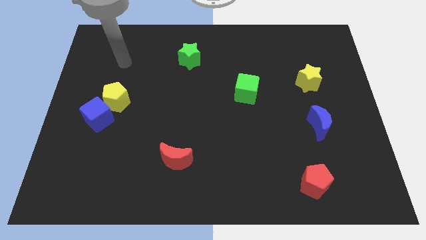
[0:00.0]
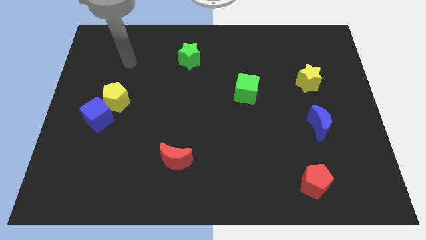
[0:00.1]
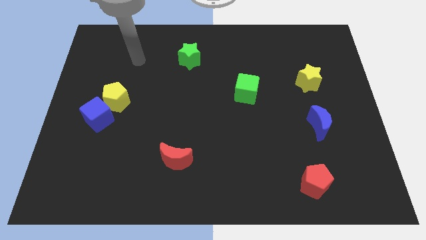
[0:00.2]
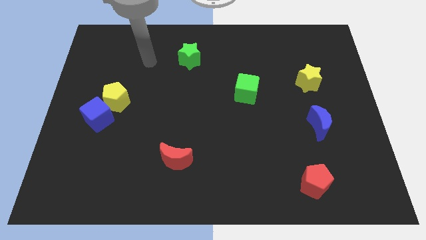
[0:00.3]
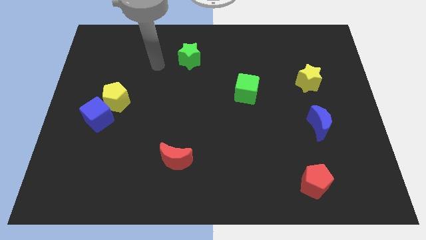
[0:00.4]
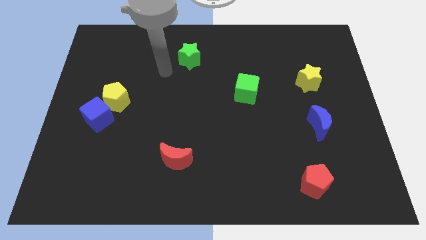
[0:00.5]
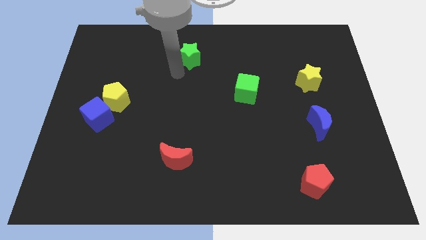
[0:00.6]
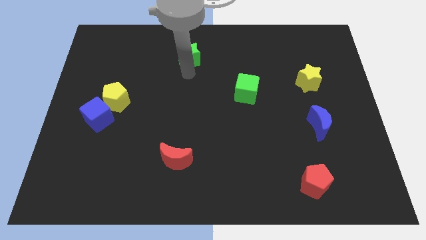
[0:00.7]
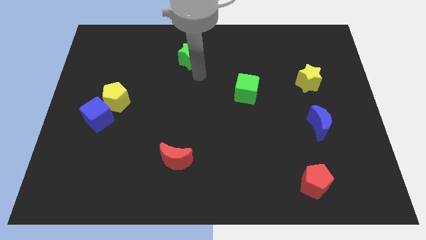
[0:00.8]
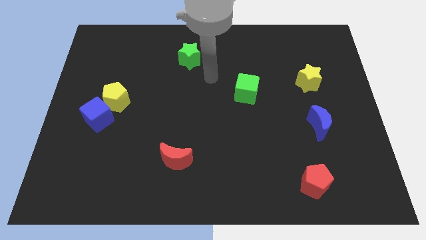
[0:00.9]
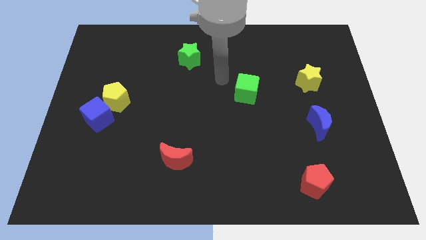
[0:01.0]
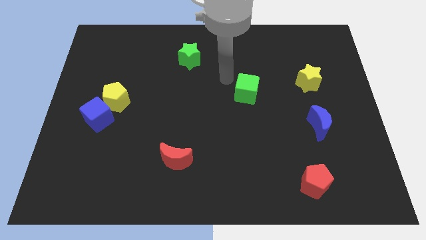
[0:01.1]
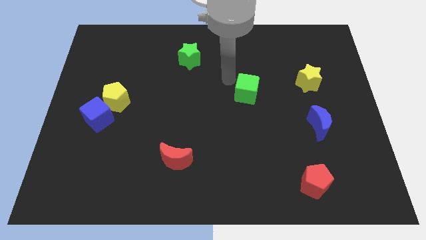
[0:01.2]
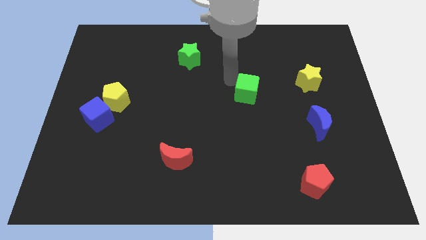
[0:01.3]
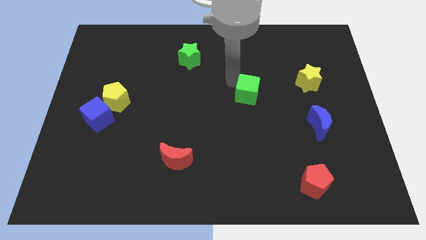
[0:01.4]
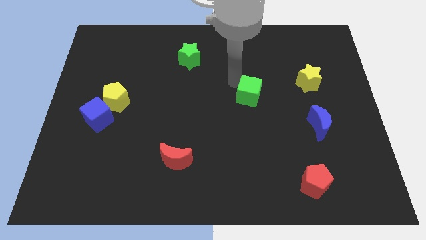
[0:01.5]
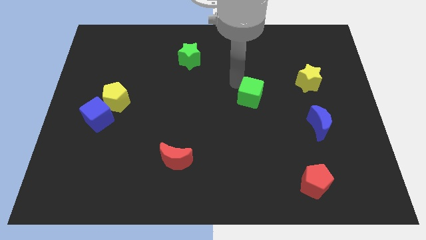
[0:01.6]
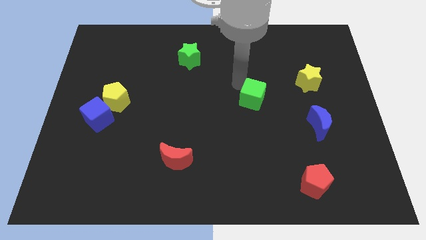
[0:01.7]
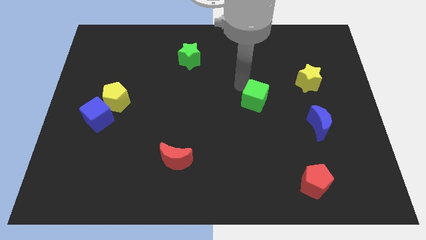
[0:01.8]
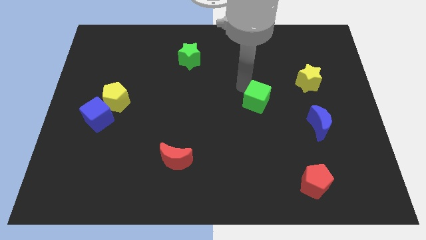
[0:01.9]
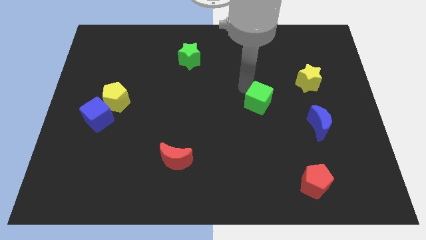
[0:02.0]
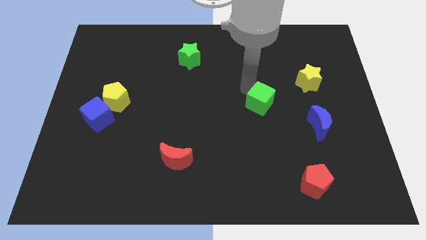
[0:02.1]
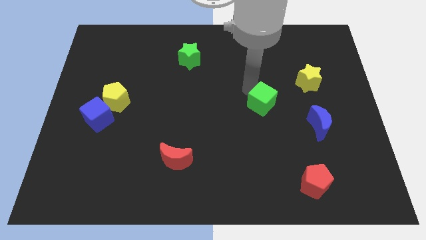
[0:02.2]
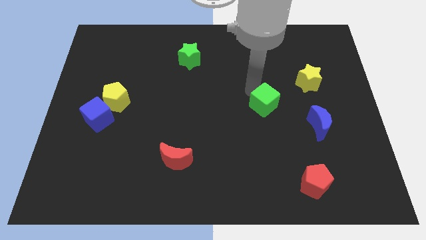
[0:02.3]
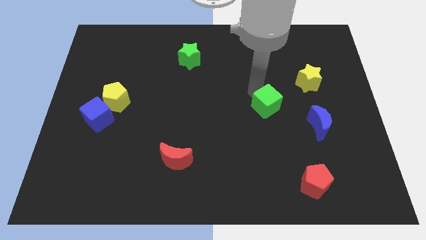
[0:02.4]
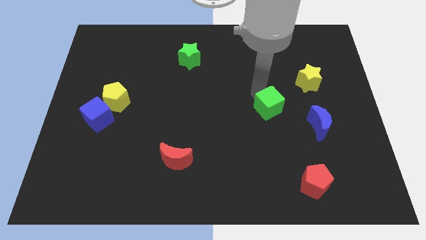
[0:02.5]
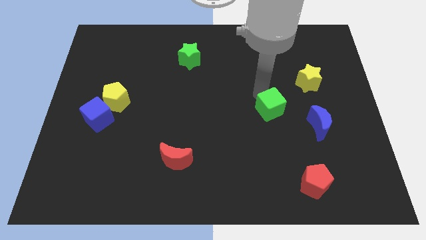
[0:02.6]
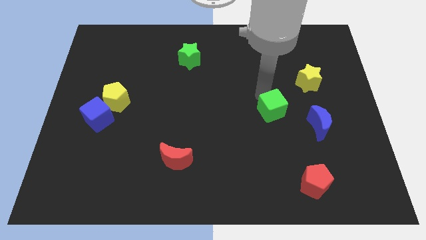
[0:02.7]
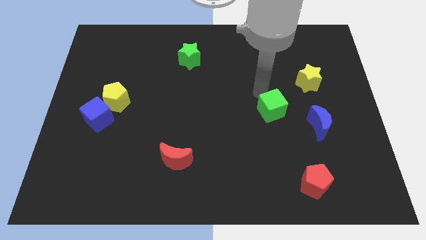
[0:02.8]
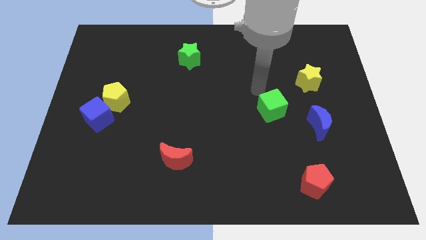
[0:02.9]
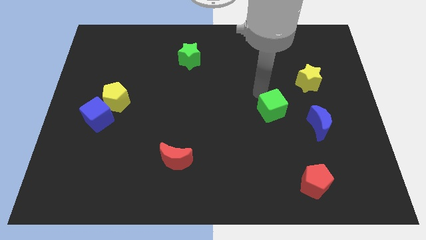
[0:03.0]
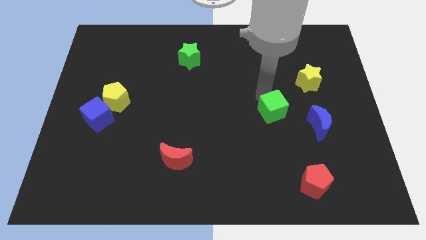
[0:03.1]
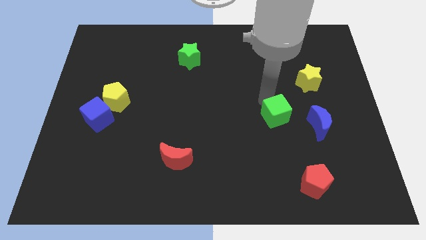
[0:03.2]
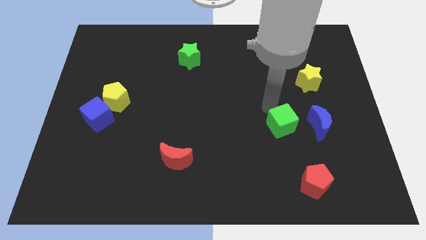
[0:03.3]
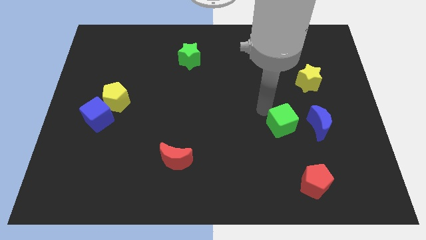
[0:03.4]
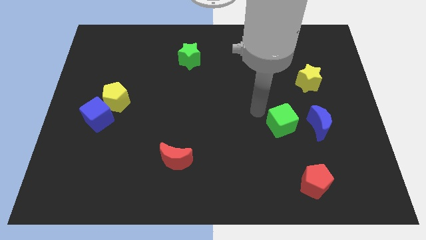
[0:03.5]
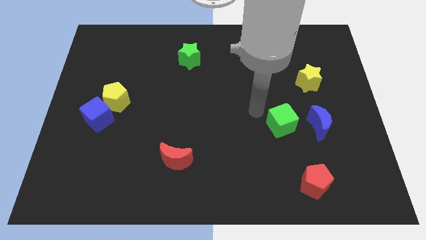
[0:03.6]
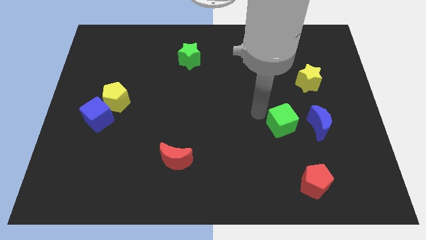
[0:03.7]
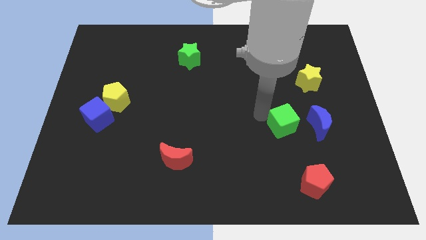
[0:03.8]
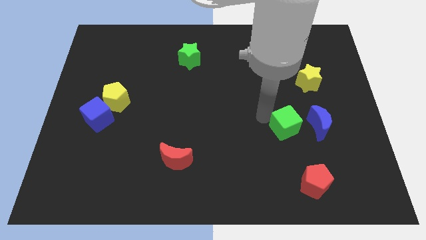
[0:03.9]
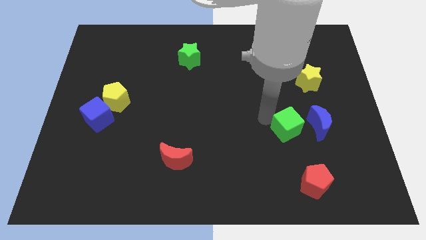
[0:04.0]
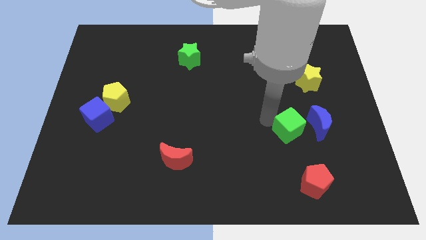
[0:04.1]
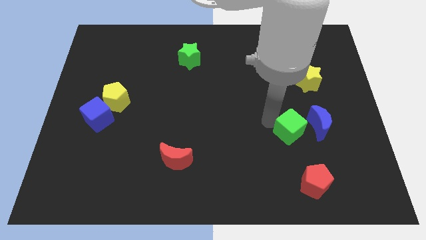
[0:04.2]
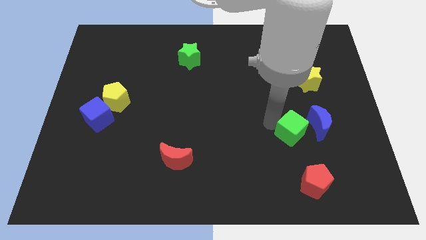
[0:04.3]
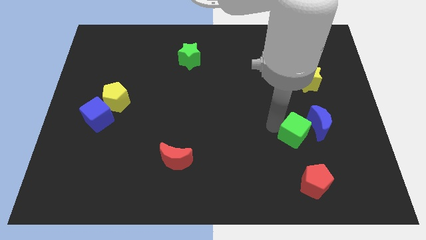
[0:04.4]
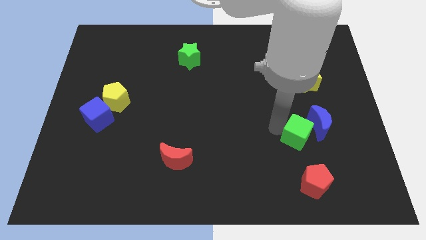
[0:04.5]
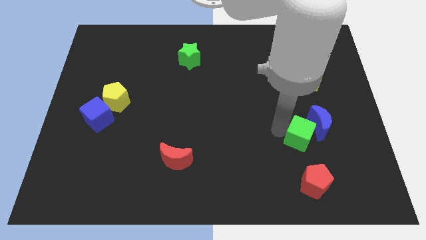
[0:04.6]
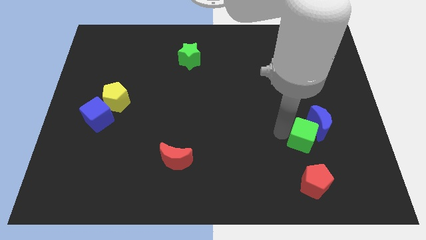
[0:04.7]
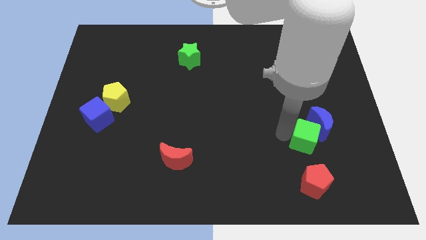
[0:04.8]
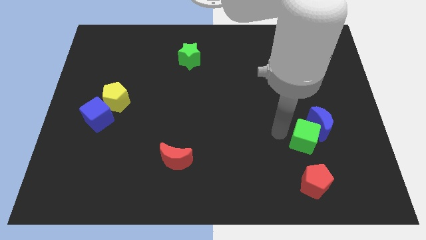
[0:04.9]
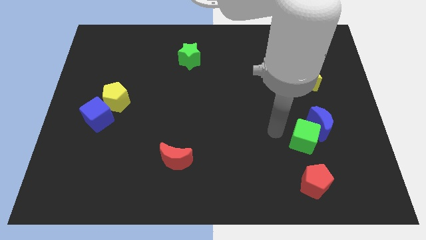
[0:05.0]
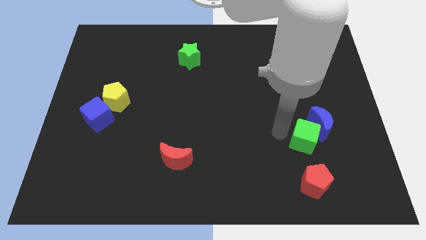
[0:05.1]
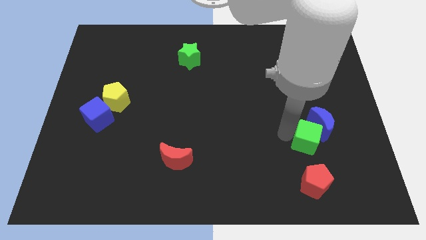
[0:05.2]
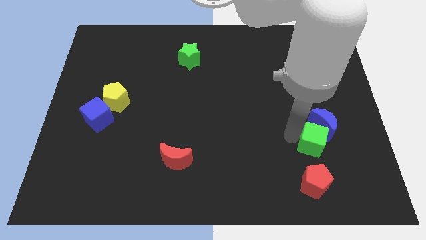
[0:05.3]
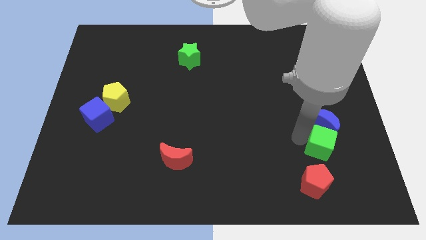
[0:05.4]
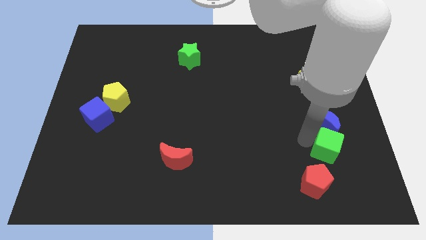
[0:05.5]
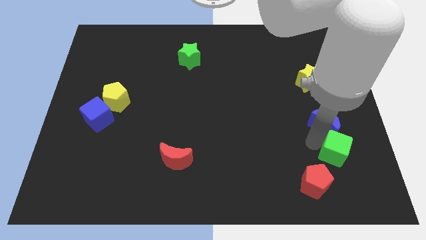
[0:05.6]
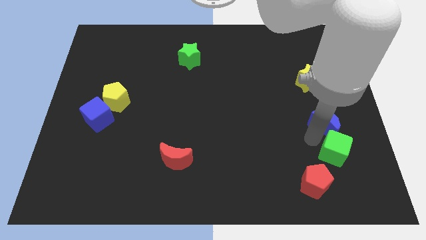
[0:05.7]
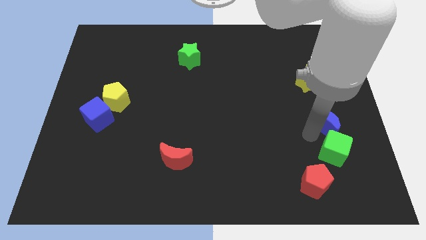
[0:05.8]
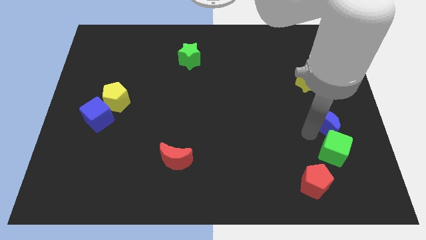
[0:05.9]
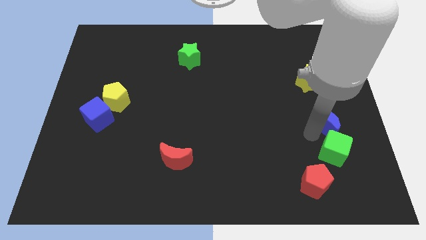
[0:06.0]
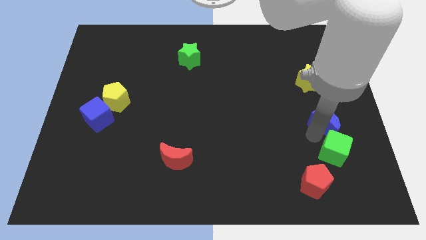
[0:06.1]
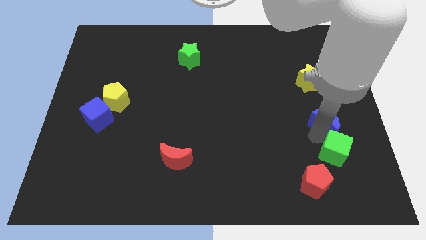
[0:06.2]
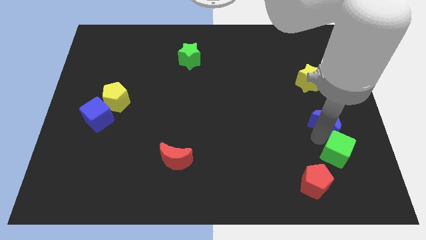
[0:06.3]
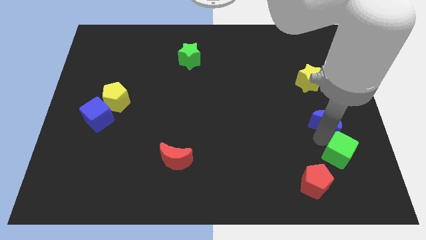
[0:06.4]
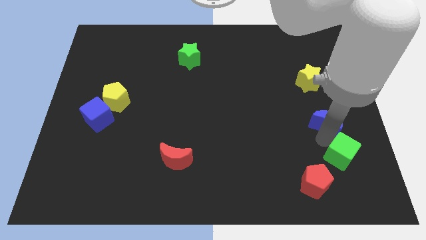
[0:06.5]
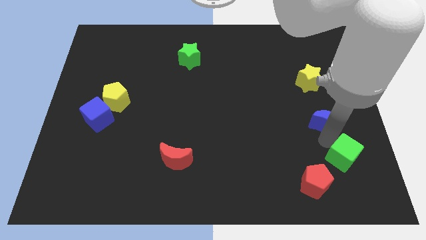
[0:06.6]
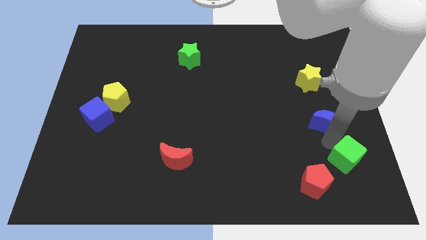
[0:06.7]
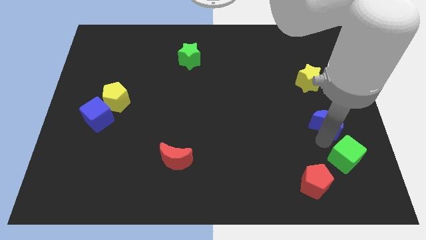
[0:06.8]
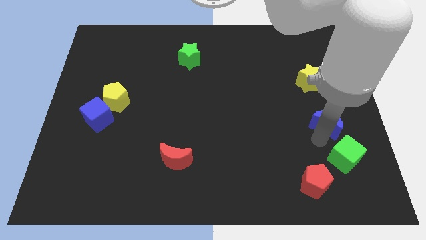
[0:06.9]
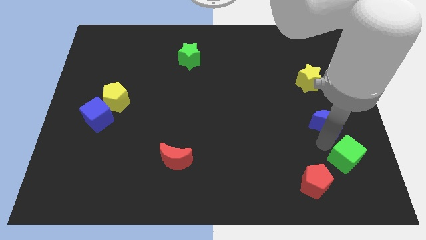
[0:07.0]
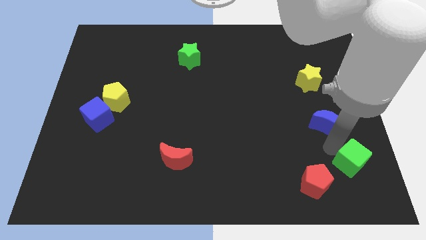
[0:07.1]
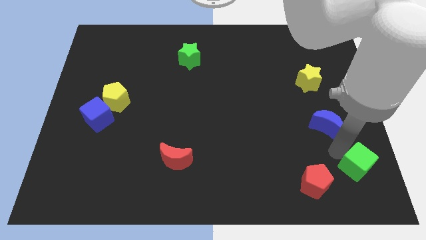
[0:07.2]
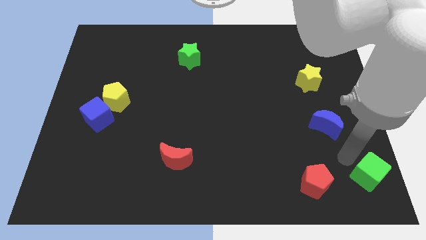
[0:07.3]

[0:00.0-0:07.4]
put the green cube to the bottom right
